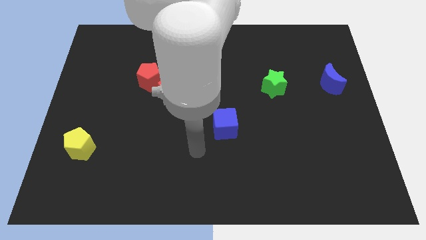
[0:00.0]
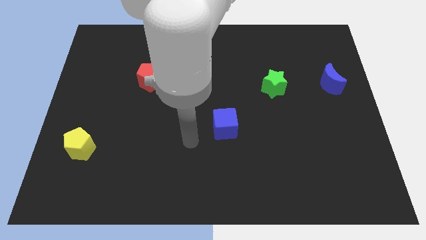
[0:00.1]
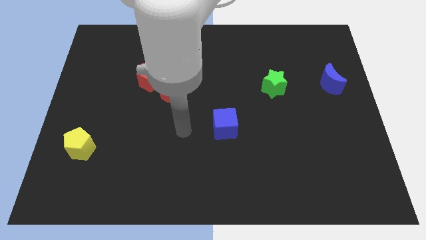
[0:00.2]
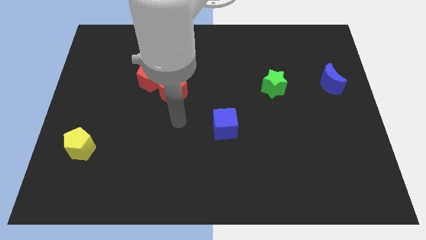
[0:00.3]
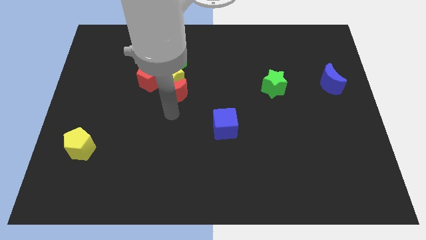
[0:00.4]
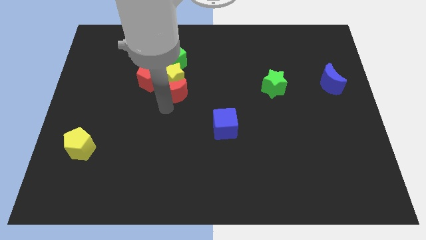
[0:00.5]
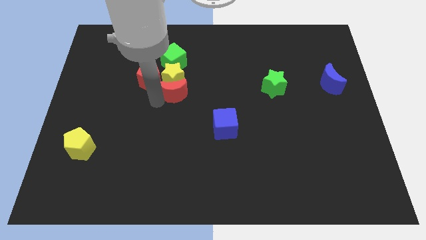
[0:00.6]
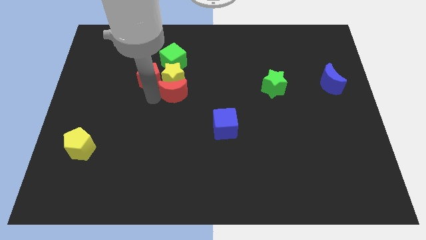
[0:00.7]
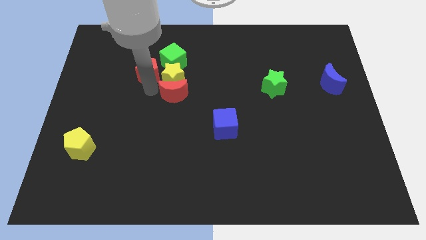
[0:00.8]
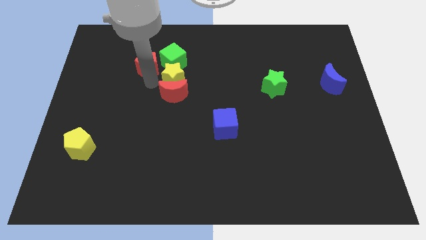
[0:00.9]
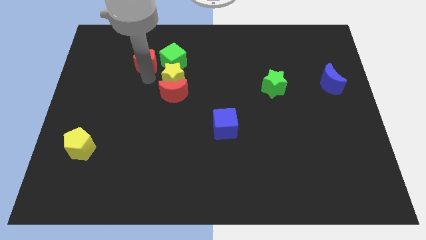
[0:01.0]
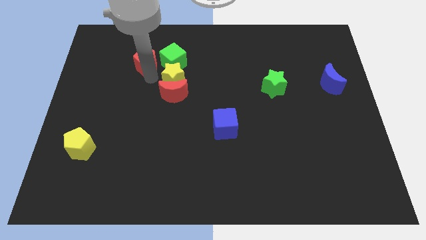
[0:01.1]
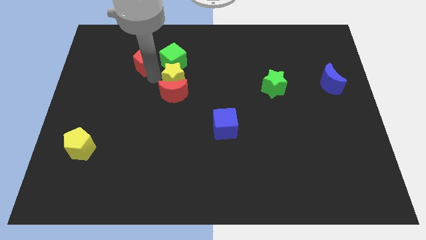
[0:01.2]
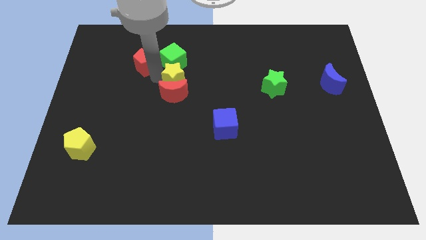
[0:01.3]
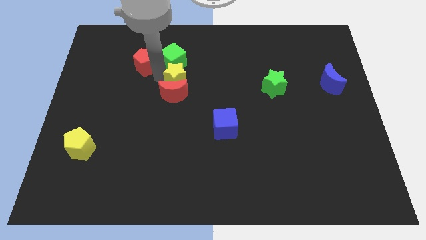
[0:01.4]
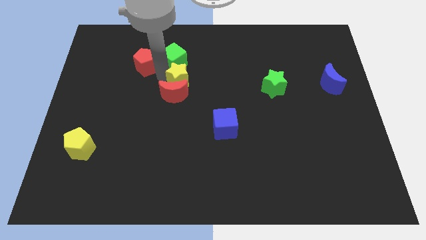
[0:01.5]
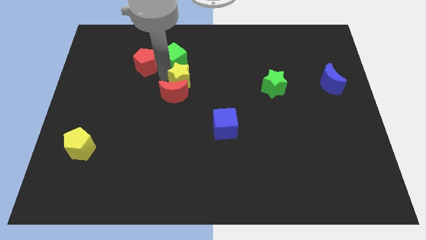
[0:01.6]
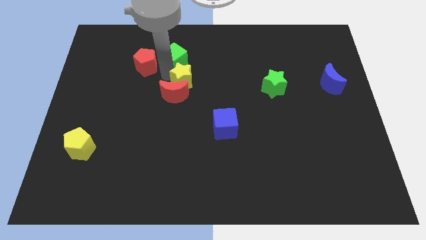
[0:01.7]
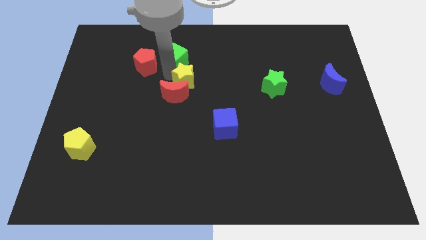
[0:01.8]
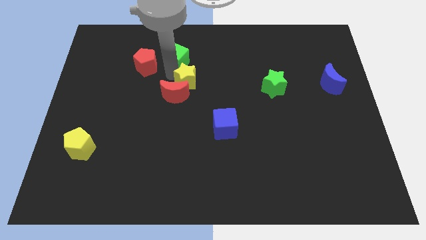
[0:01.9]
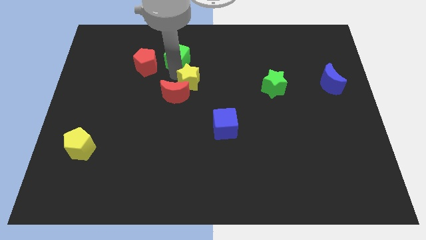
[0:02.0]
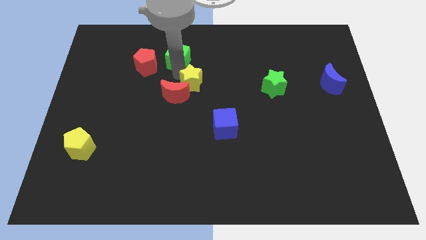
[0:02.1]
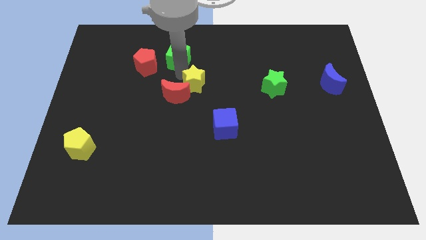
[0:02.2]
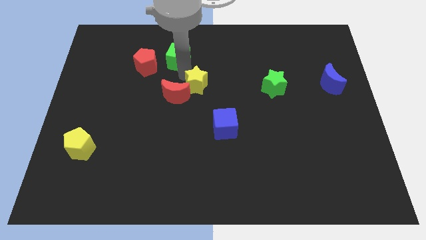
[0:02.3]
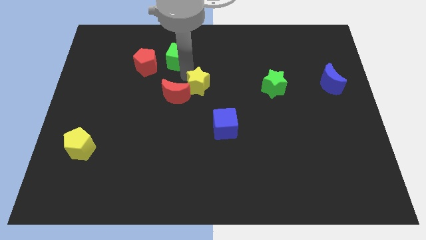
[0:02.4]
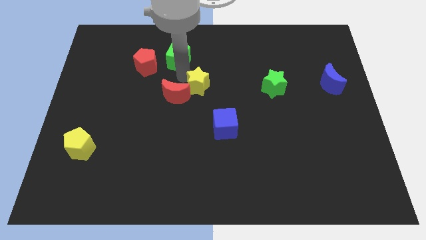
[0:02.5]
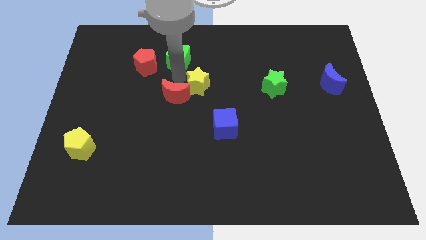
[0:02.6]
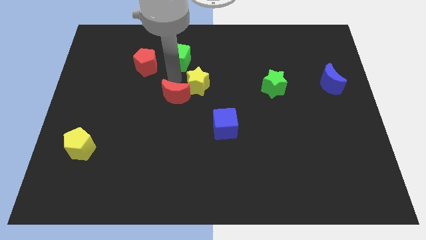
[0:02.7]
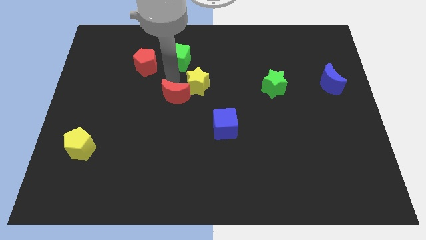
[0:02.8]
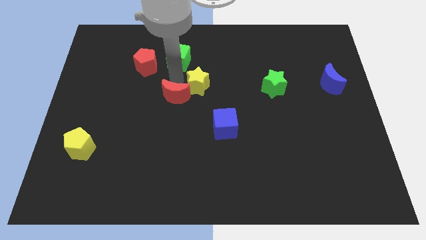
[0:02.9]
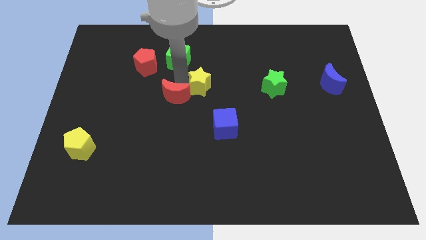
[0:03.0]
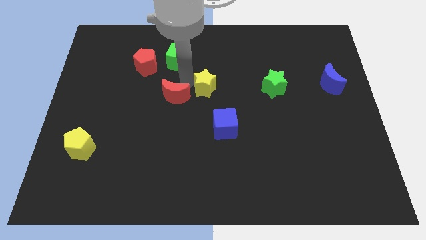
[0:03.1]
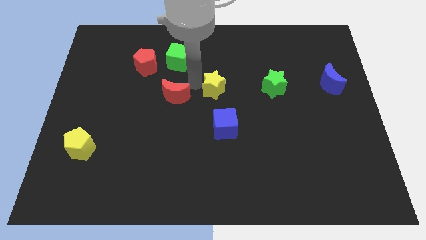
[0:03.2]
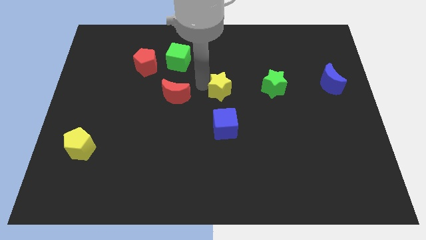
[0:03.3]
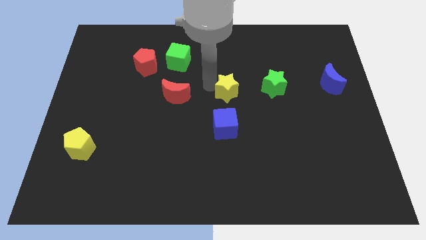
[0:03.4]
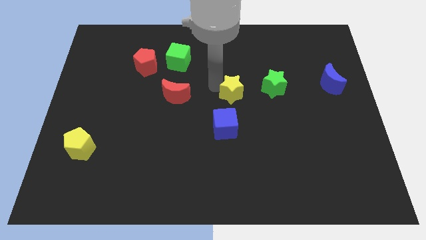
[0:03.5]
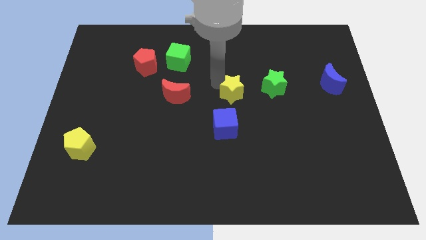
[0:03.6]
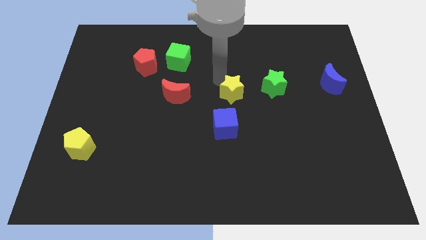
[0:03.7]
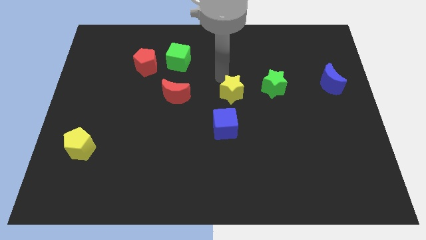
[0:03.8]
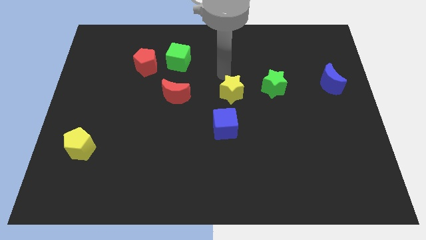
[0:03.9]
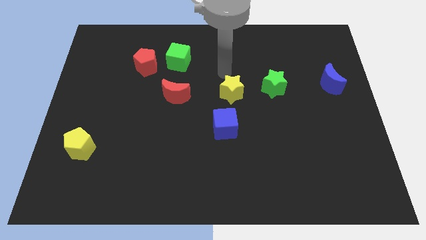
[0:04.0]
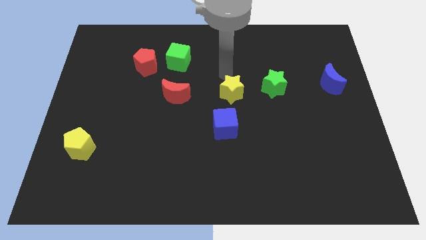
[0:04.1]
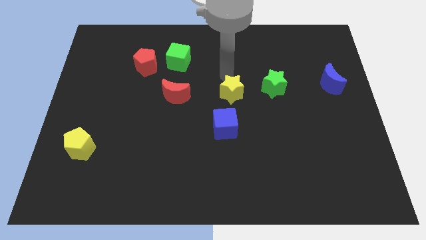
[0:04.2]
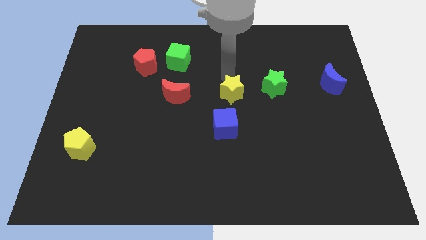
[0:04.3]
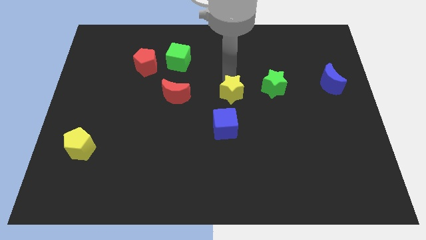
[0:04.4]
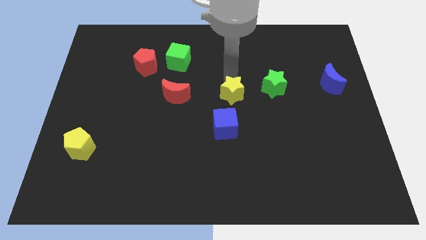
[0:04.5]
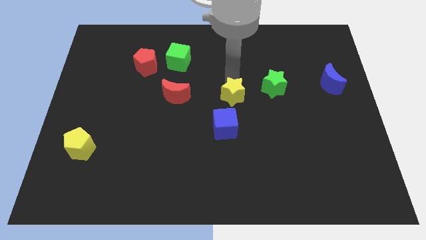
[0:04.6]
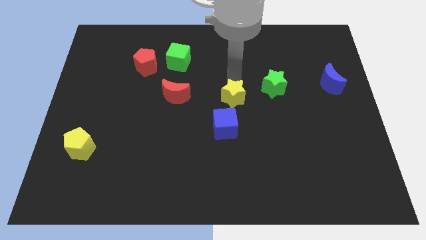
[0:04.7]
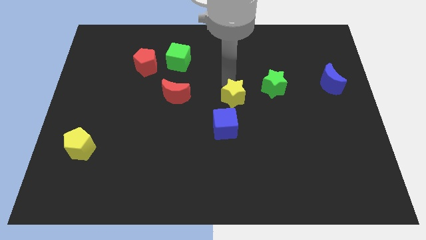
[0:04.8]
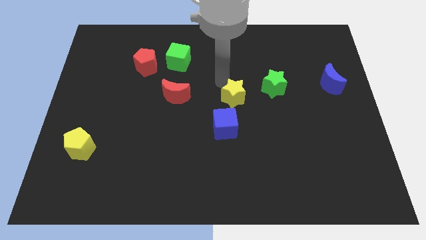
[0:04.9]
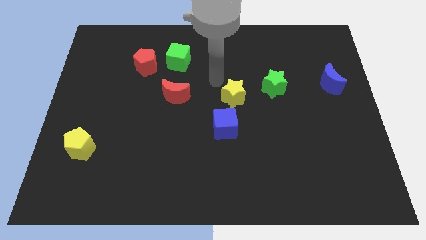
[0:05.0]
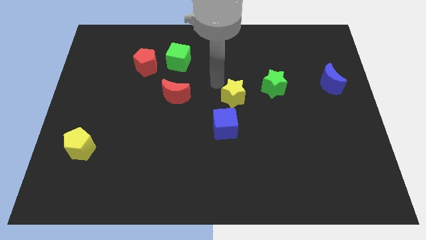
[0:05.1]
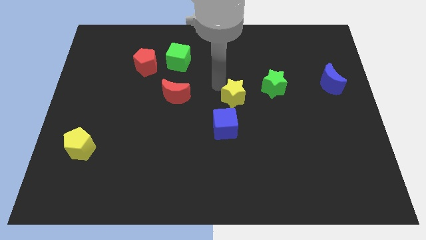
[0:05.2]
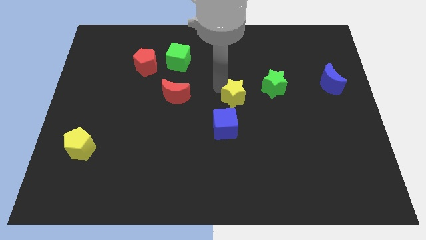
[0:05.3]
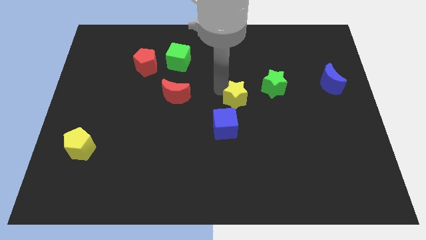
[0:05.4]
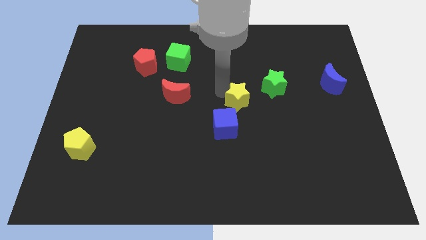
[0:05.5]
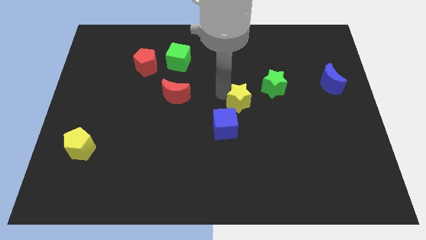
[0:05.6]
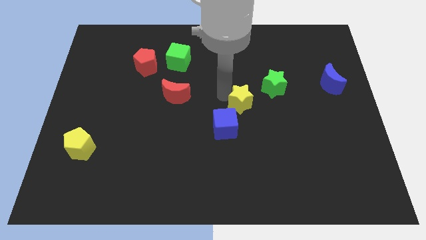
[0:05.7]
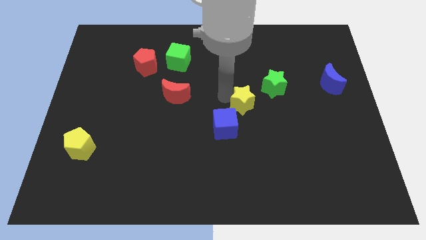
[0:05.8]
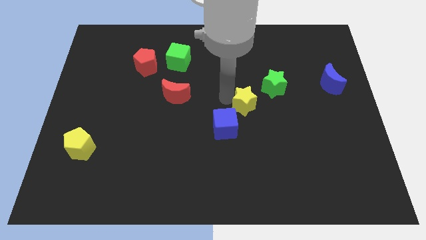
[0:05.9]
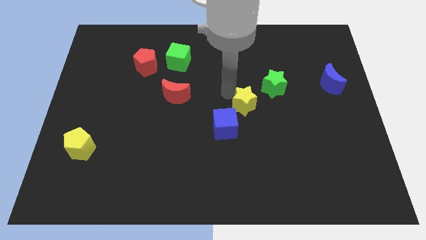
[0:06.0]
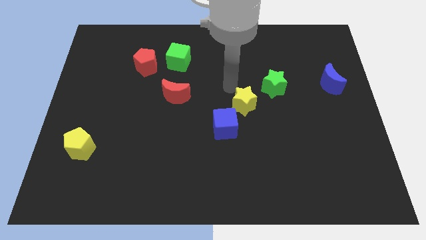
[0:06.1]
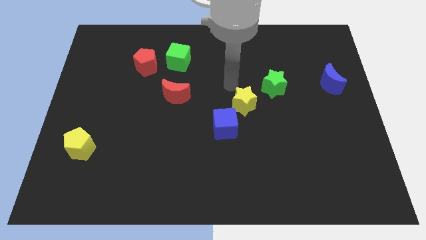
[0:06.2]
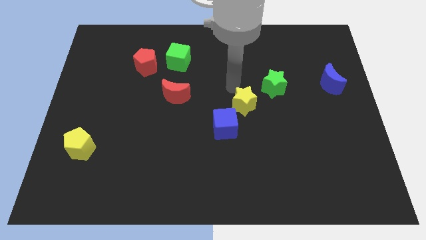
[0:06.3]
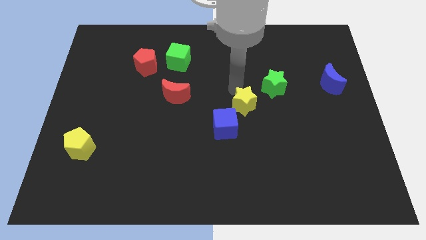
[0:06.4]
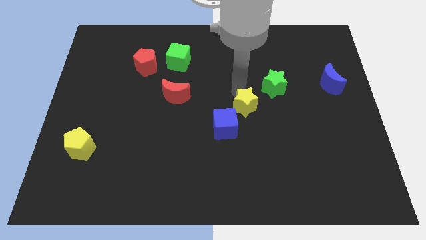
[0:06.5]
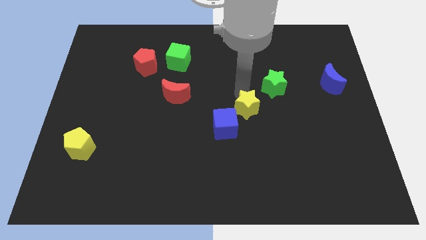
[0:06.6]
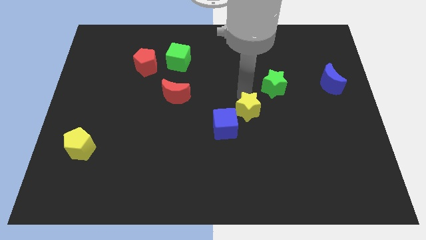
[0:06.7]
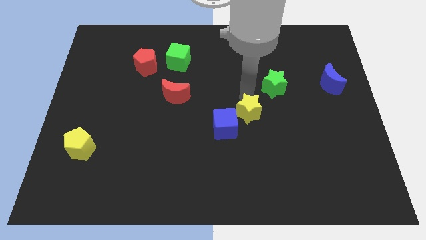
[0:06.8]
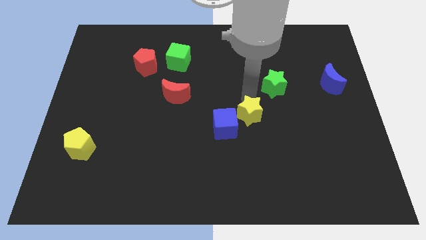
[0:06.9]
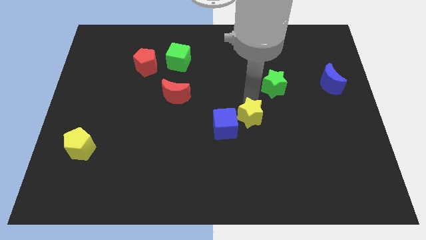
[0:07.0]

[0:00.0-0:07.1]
slide the yellow star diagonally down and to the right

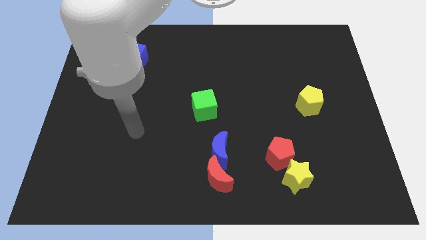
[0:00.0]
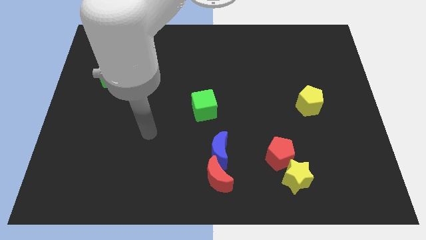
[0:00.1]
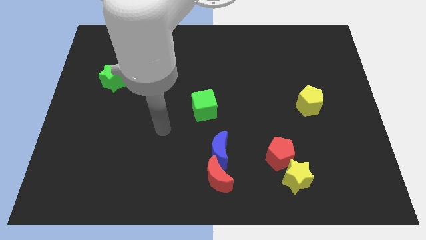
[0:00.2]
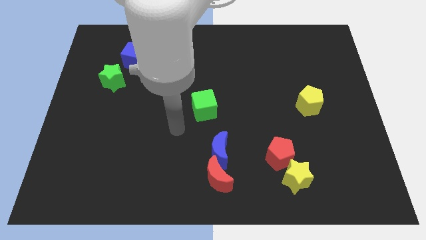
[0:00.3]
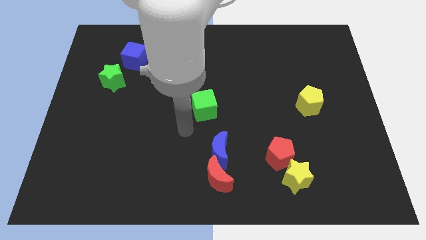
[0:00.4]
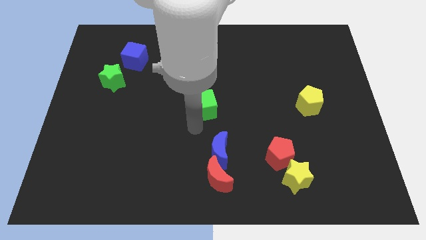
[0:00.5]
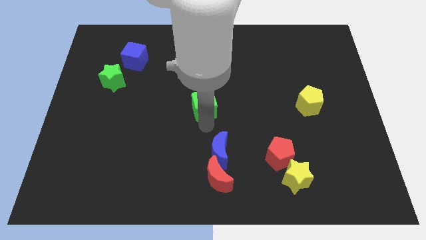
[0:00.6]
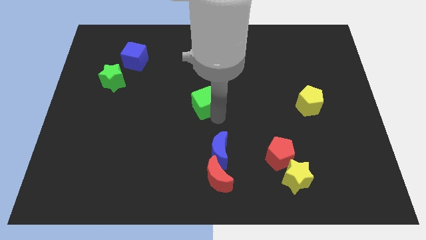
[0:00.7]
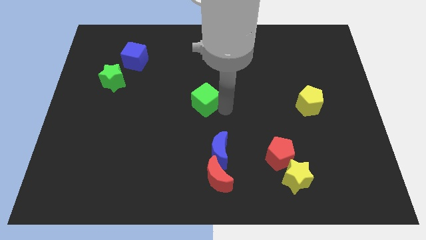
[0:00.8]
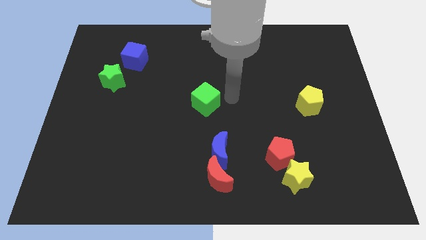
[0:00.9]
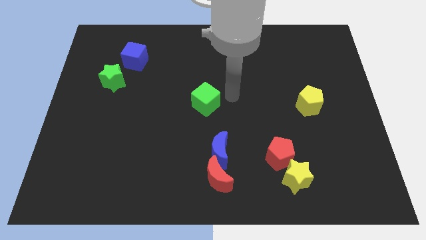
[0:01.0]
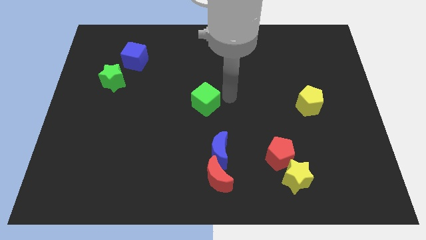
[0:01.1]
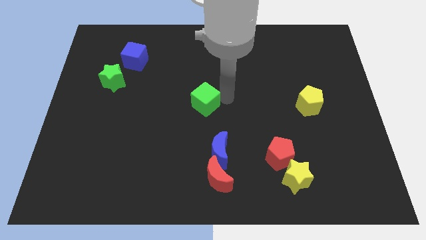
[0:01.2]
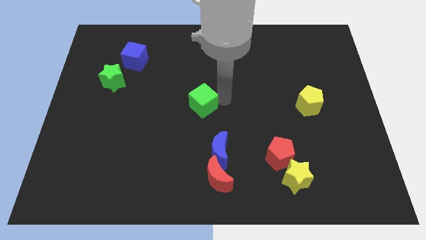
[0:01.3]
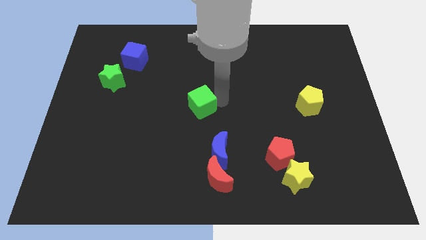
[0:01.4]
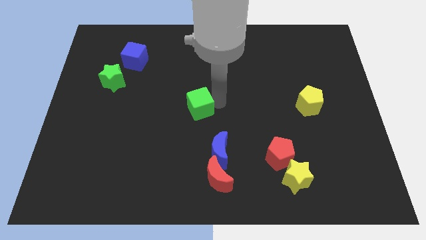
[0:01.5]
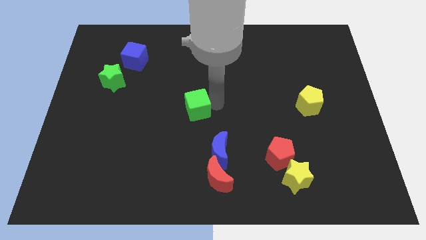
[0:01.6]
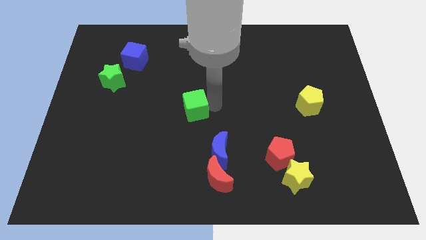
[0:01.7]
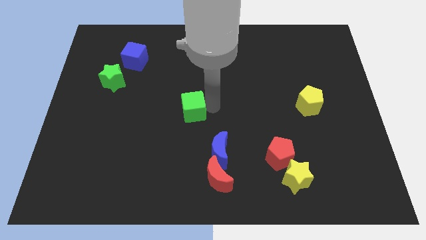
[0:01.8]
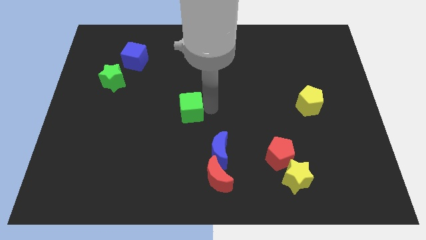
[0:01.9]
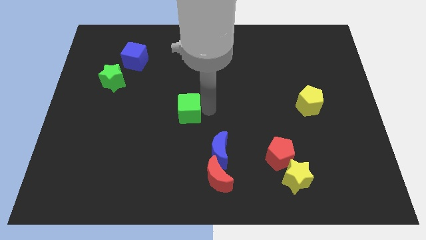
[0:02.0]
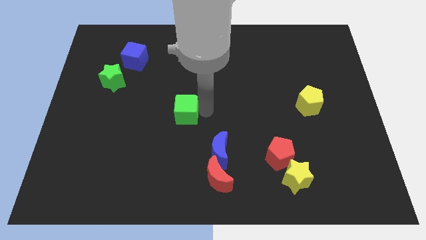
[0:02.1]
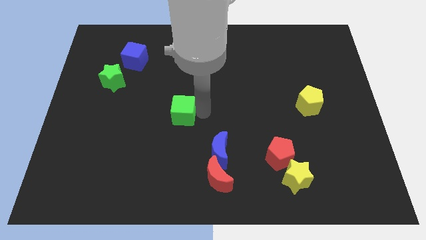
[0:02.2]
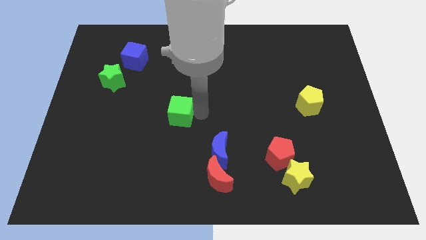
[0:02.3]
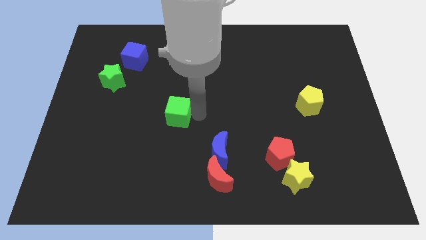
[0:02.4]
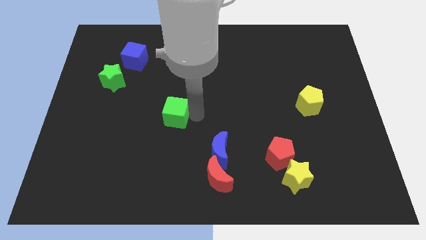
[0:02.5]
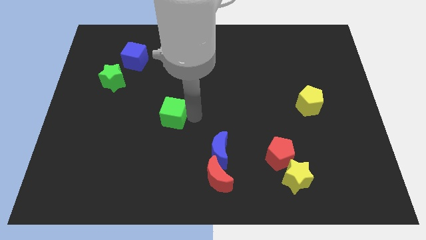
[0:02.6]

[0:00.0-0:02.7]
move the green cube to the left somewhat
